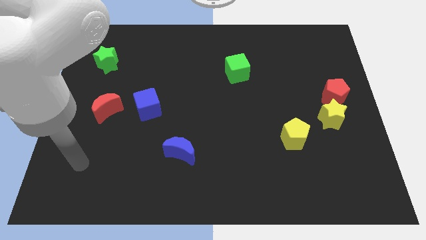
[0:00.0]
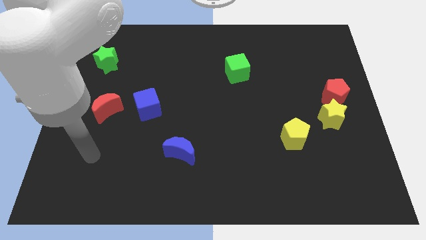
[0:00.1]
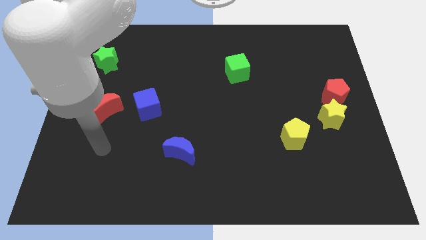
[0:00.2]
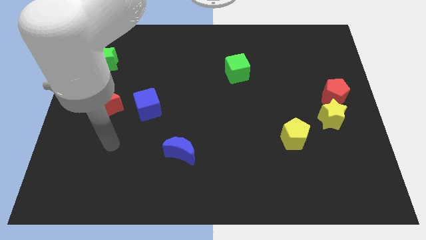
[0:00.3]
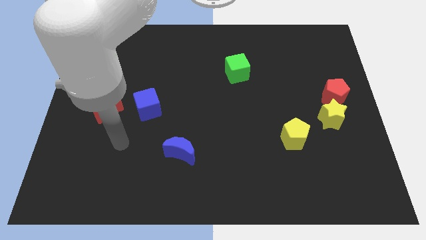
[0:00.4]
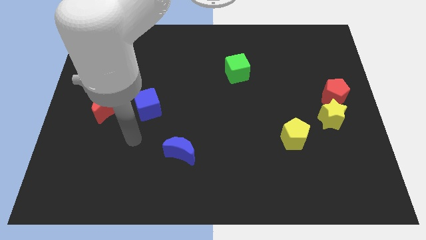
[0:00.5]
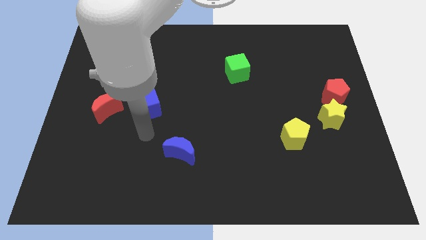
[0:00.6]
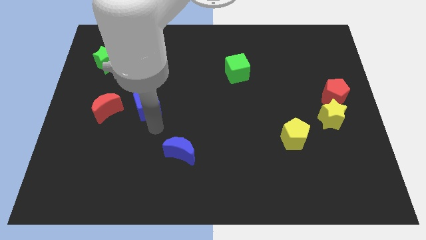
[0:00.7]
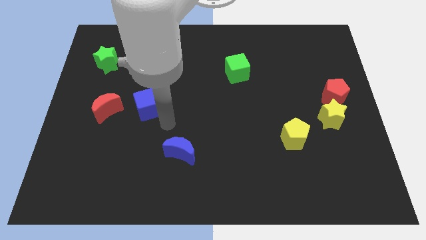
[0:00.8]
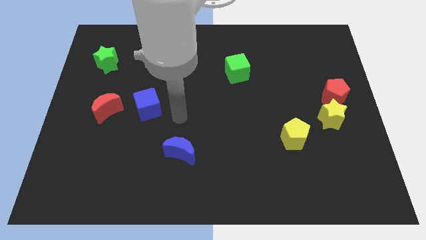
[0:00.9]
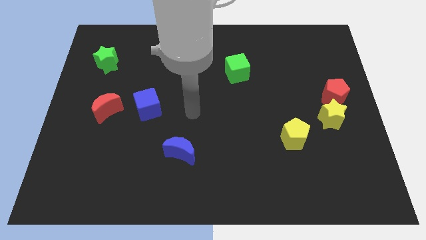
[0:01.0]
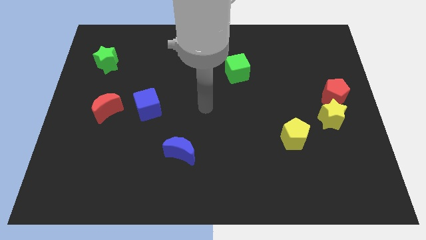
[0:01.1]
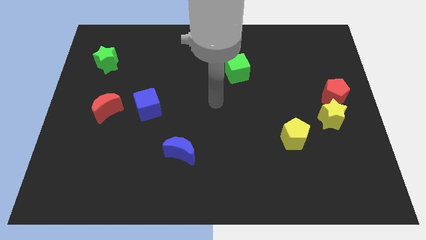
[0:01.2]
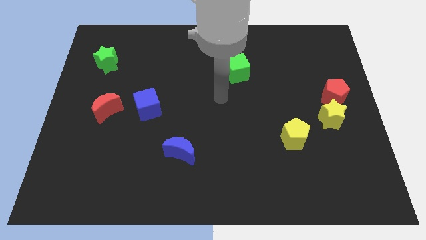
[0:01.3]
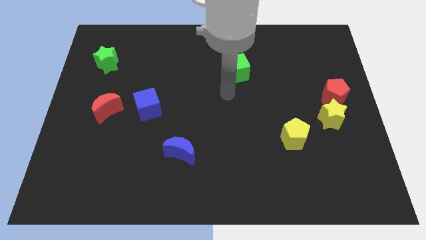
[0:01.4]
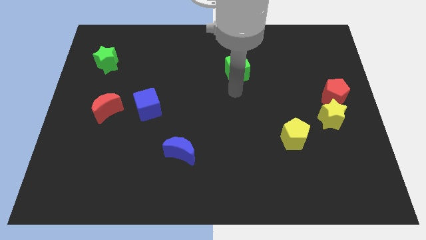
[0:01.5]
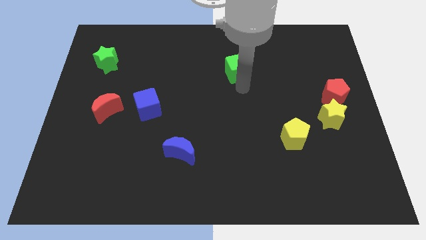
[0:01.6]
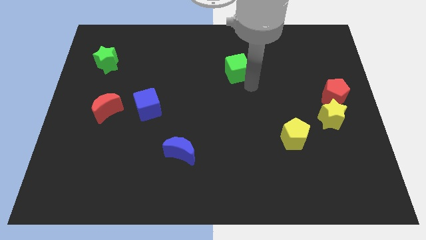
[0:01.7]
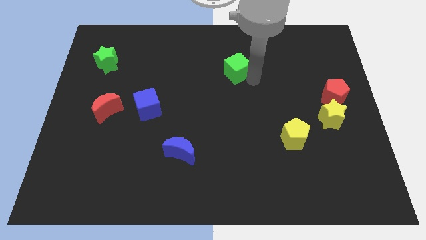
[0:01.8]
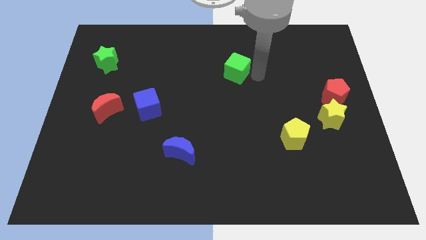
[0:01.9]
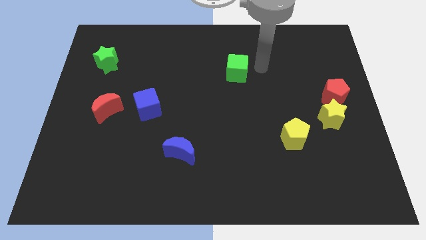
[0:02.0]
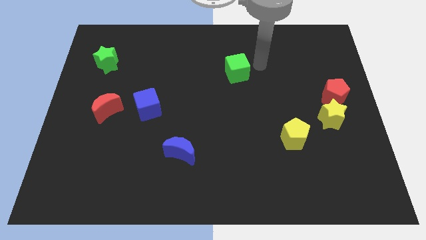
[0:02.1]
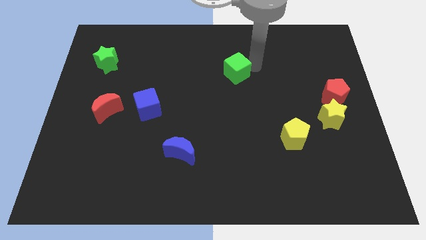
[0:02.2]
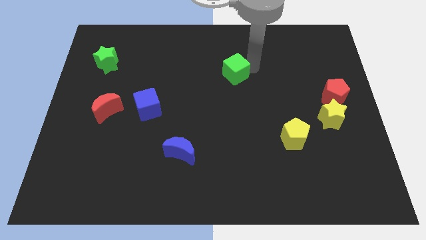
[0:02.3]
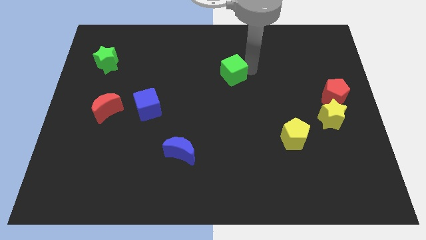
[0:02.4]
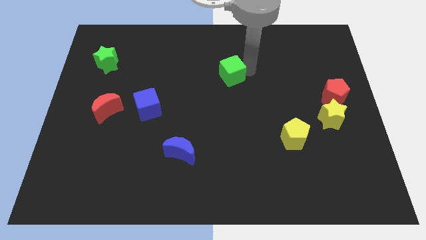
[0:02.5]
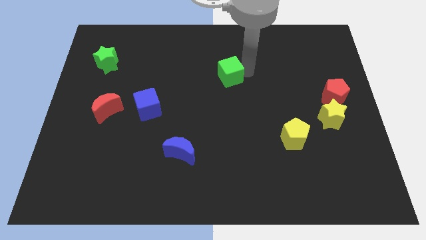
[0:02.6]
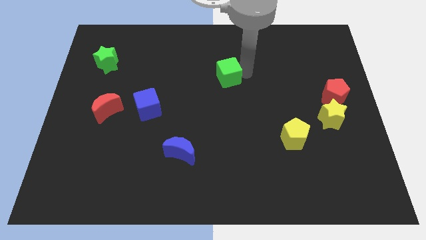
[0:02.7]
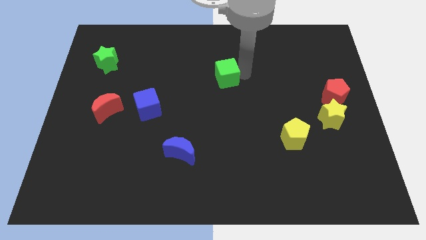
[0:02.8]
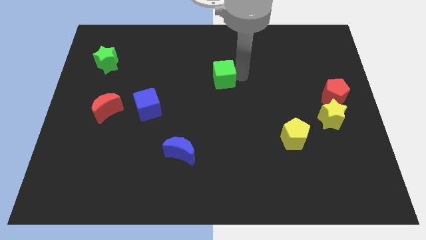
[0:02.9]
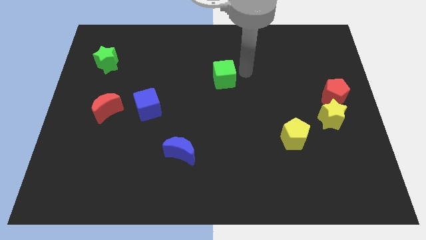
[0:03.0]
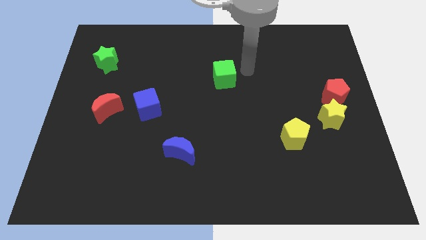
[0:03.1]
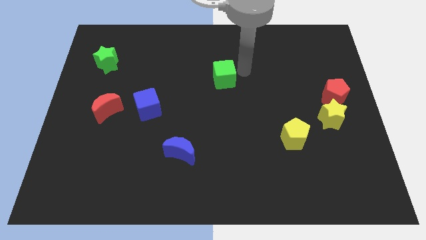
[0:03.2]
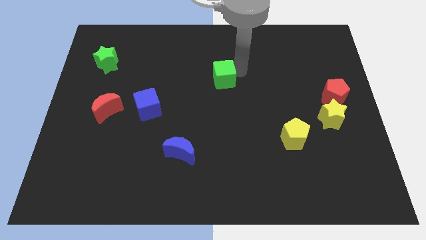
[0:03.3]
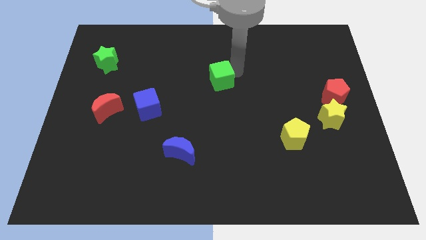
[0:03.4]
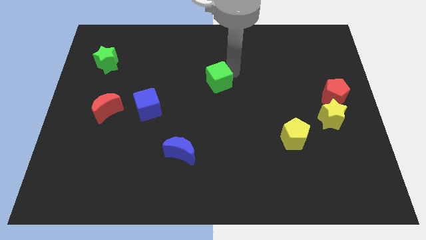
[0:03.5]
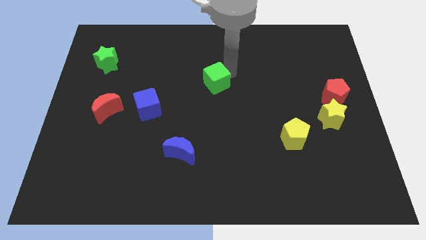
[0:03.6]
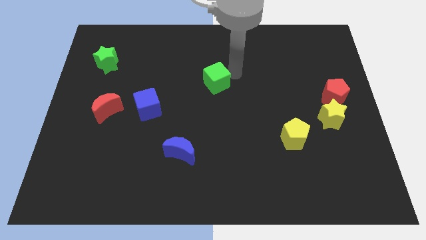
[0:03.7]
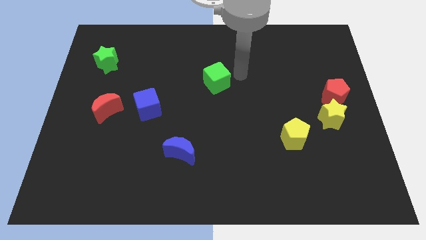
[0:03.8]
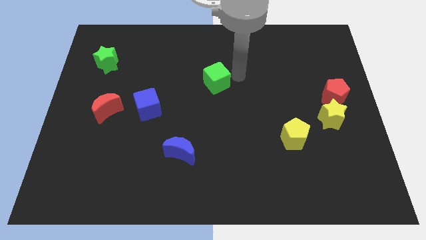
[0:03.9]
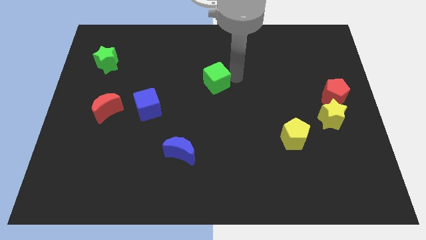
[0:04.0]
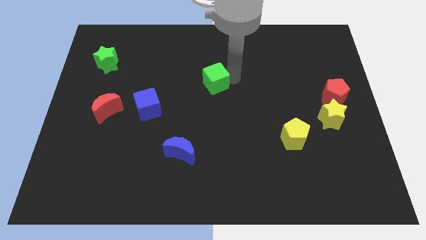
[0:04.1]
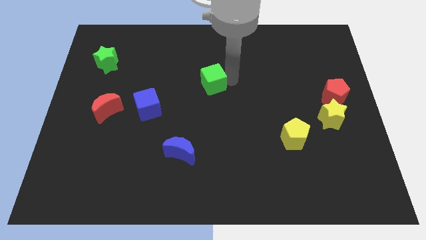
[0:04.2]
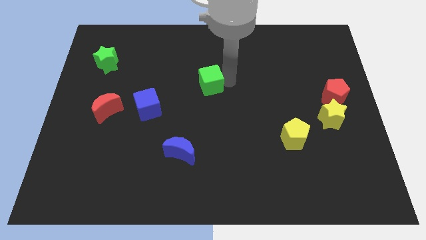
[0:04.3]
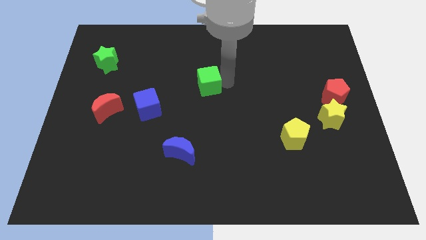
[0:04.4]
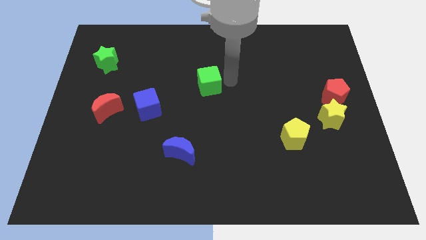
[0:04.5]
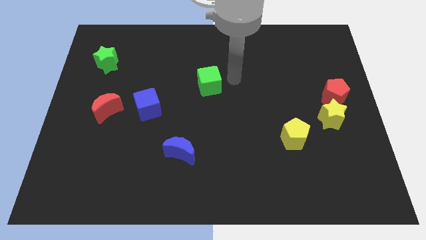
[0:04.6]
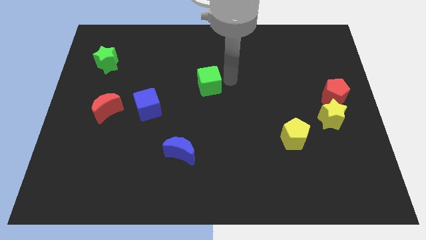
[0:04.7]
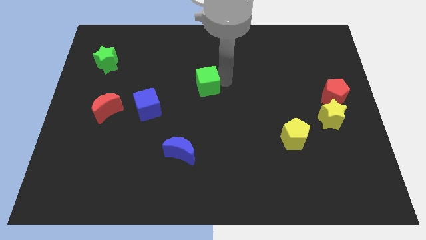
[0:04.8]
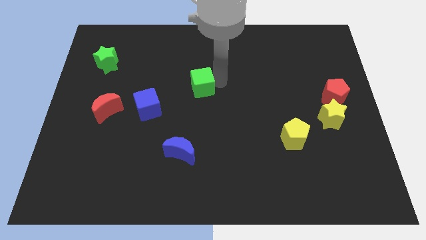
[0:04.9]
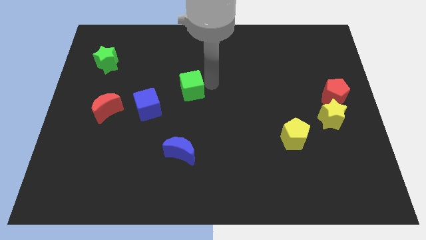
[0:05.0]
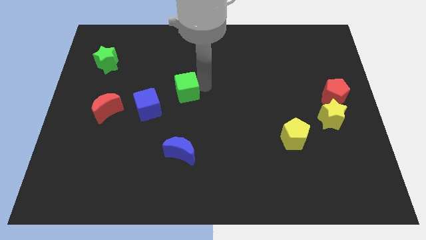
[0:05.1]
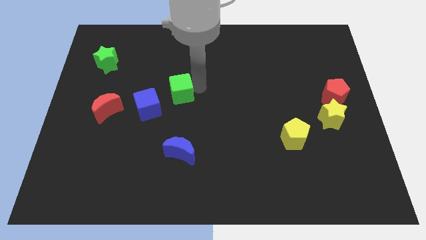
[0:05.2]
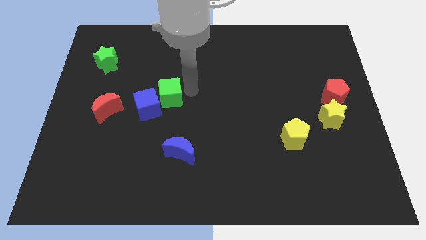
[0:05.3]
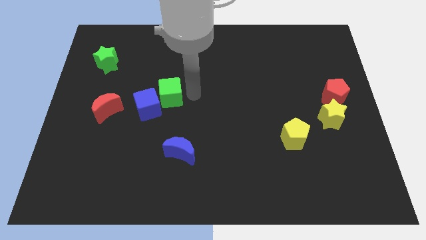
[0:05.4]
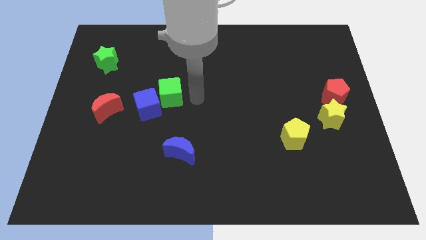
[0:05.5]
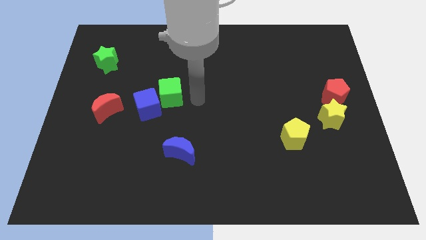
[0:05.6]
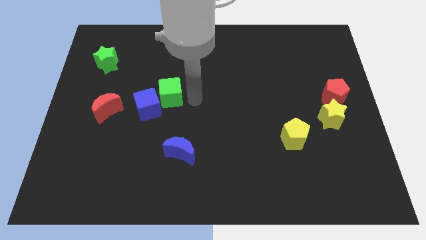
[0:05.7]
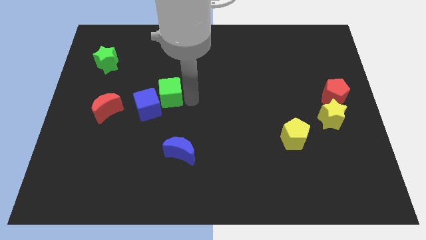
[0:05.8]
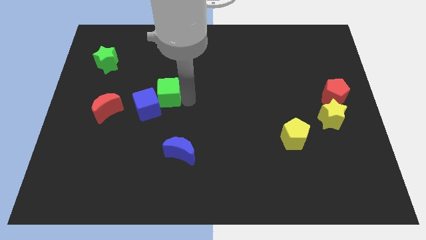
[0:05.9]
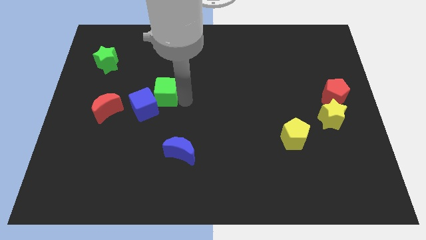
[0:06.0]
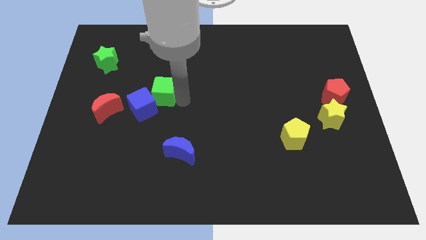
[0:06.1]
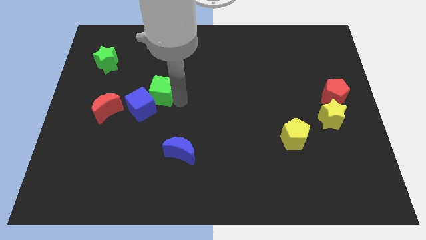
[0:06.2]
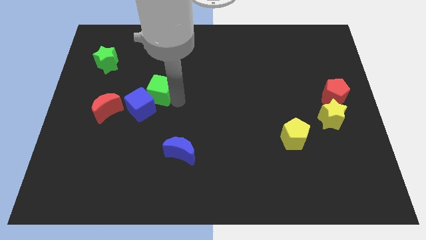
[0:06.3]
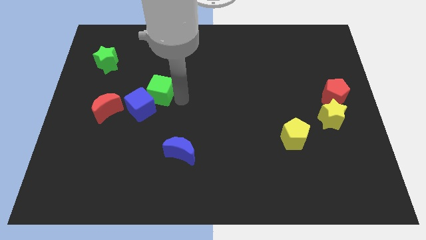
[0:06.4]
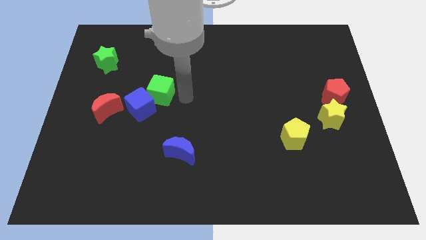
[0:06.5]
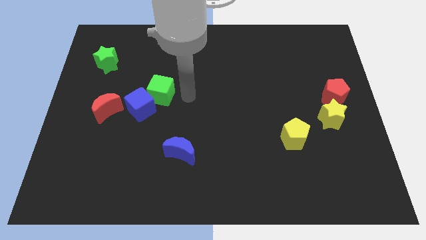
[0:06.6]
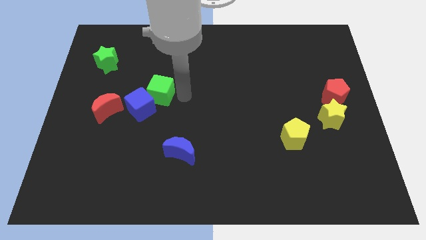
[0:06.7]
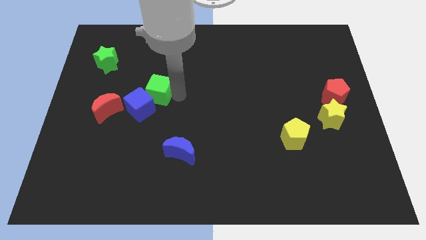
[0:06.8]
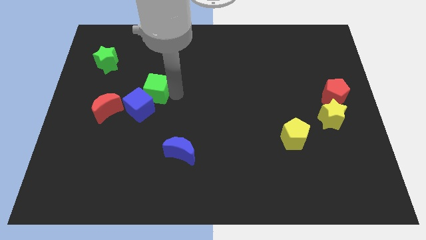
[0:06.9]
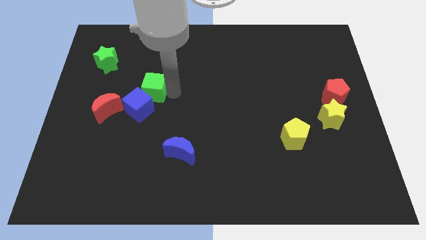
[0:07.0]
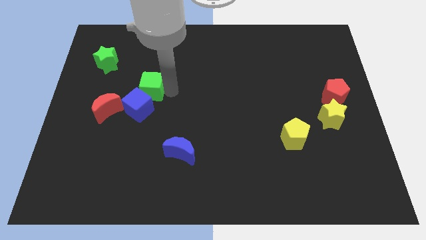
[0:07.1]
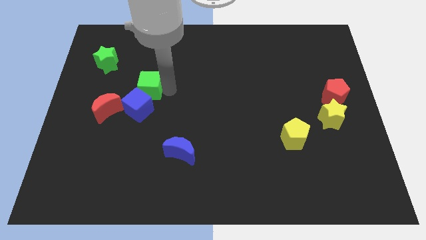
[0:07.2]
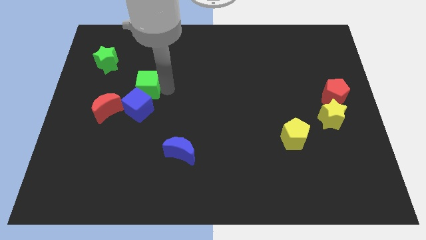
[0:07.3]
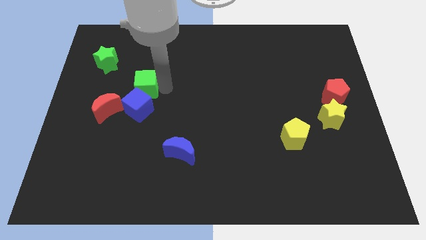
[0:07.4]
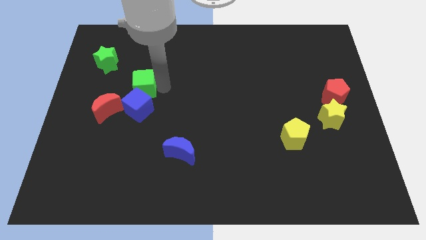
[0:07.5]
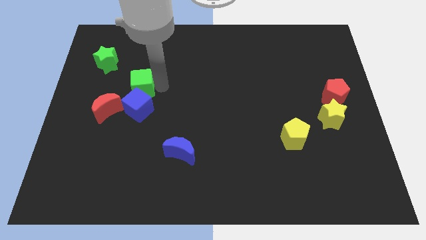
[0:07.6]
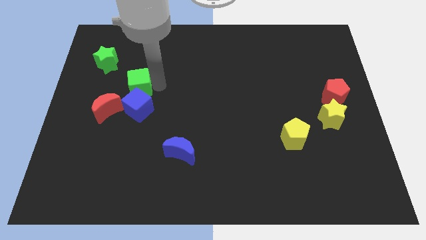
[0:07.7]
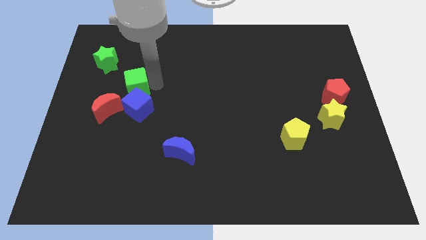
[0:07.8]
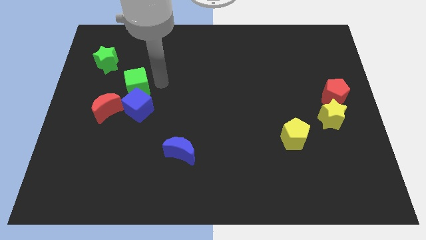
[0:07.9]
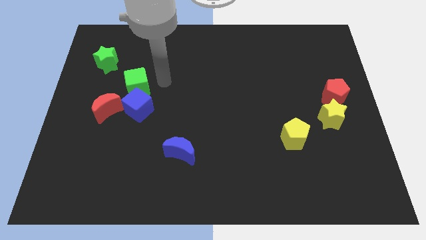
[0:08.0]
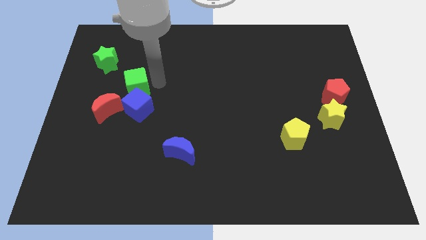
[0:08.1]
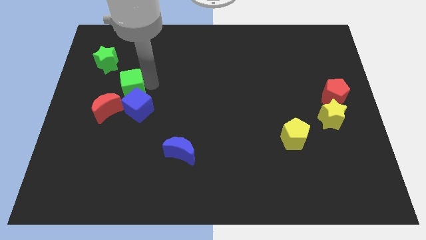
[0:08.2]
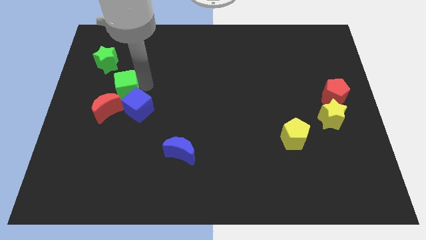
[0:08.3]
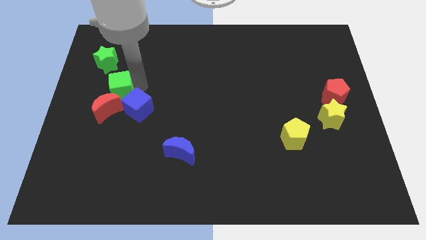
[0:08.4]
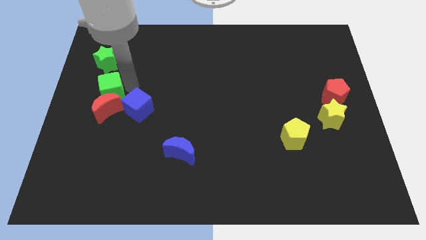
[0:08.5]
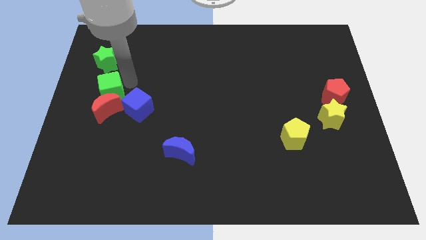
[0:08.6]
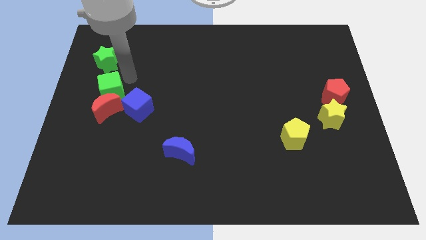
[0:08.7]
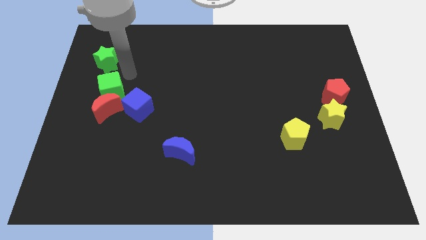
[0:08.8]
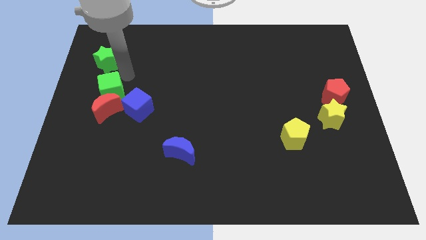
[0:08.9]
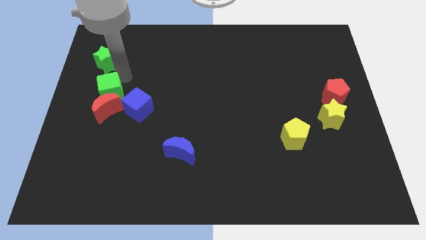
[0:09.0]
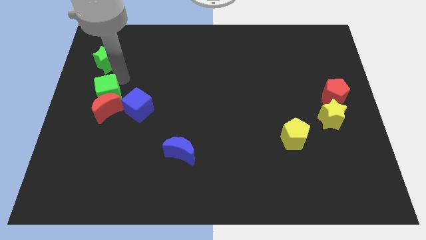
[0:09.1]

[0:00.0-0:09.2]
slide the green cube left of the blue cube
